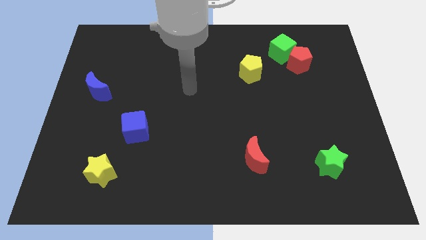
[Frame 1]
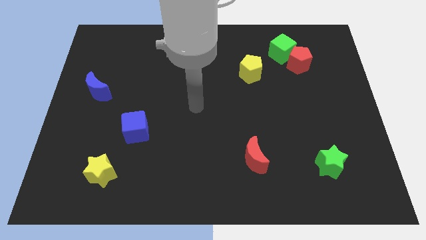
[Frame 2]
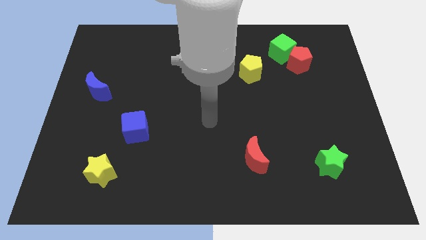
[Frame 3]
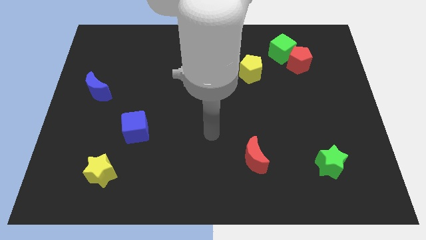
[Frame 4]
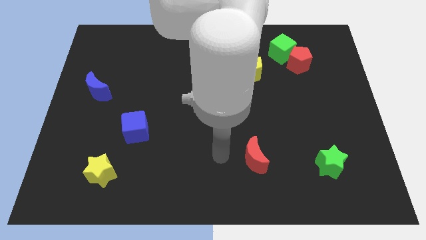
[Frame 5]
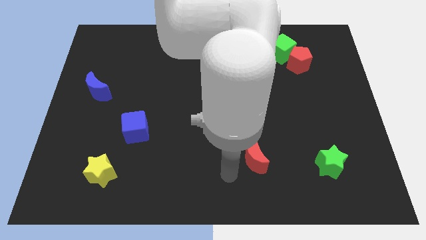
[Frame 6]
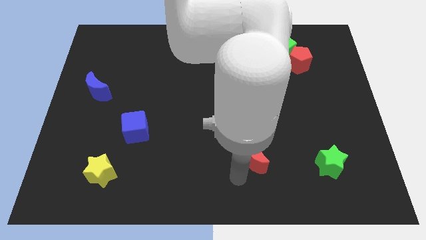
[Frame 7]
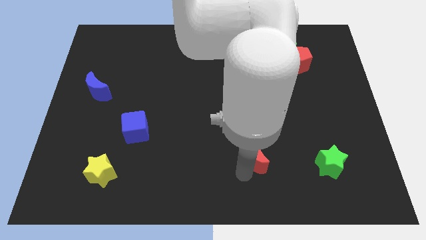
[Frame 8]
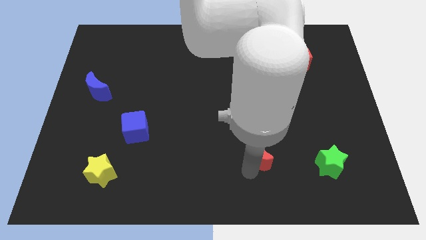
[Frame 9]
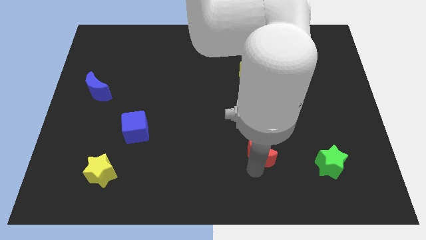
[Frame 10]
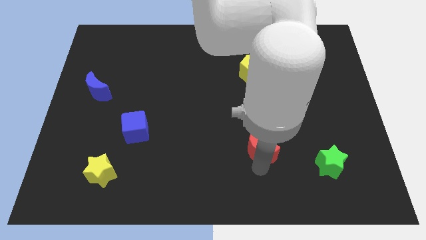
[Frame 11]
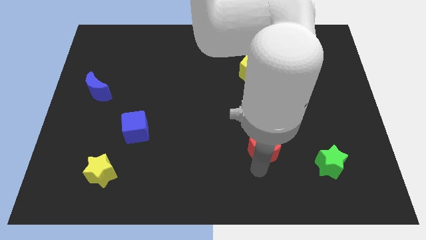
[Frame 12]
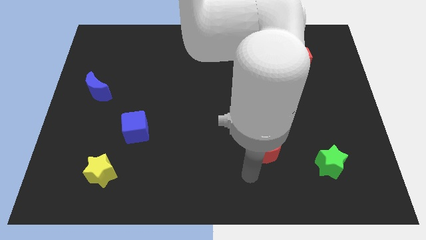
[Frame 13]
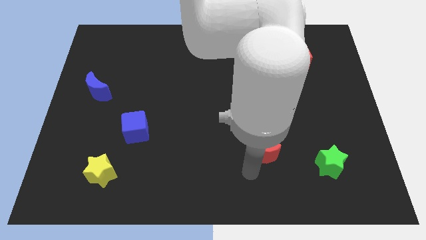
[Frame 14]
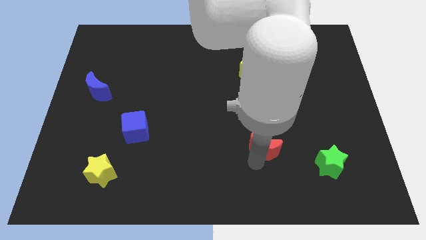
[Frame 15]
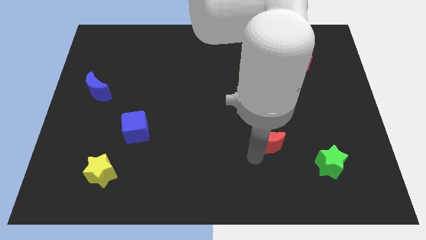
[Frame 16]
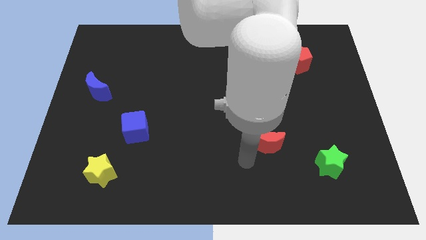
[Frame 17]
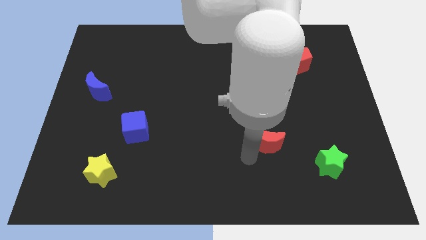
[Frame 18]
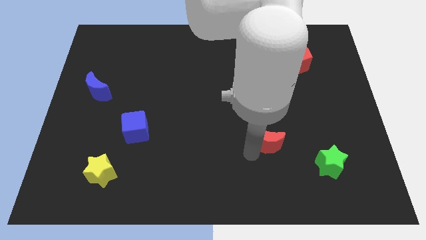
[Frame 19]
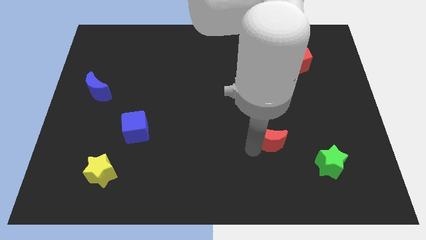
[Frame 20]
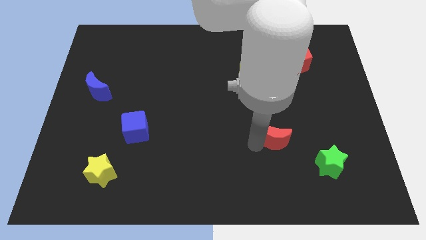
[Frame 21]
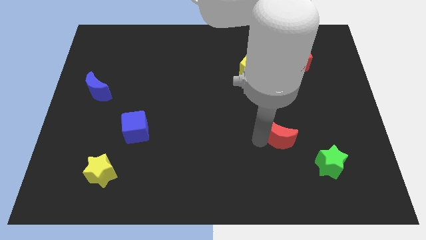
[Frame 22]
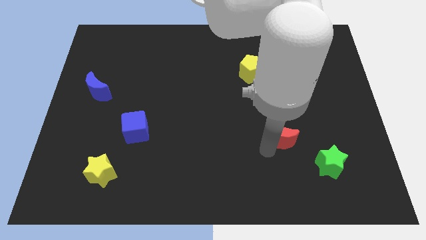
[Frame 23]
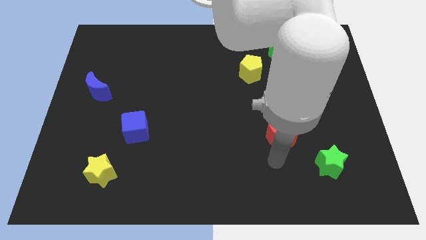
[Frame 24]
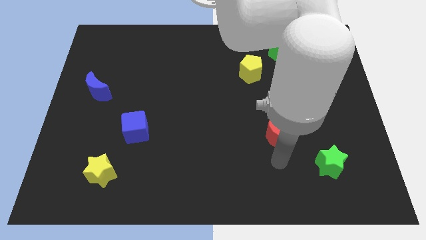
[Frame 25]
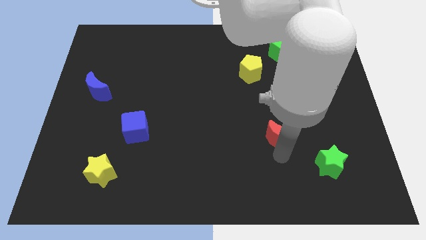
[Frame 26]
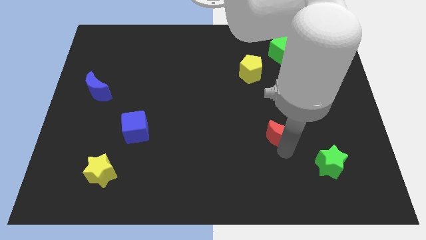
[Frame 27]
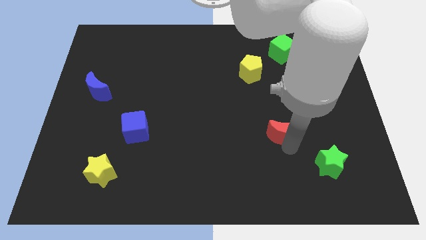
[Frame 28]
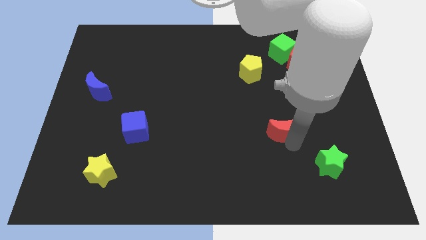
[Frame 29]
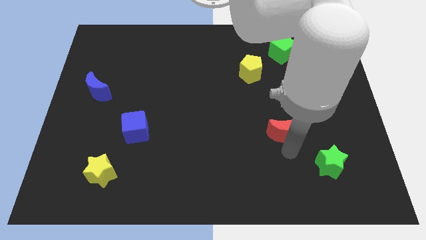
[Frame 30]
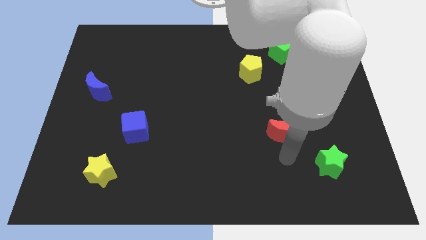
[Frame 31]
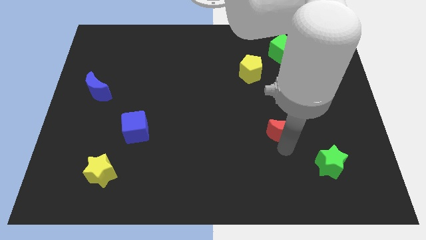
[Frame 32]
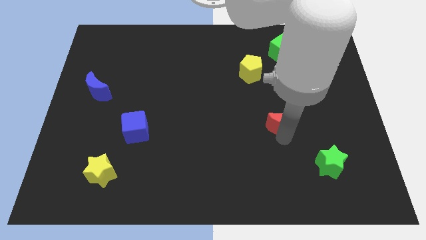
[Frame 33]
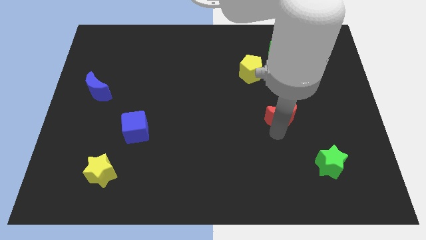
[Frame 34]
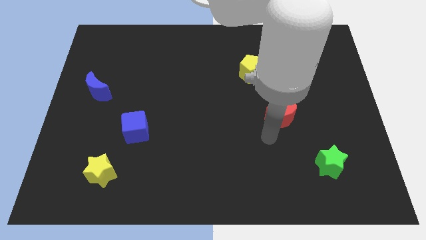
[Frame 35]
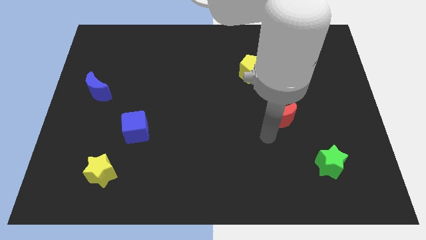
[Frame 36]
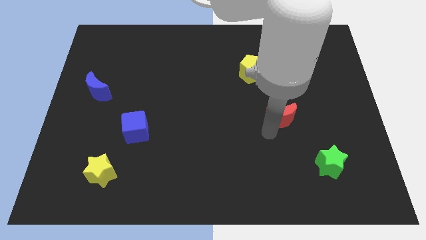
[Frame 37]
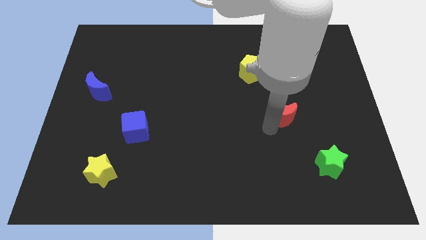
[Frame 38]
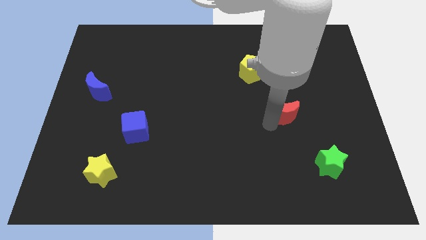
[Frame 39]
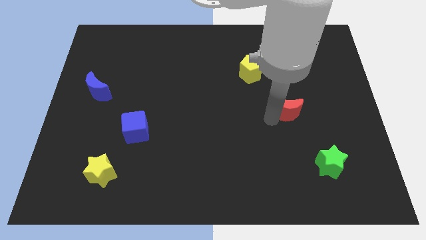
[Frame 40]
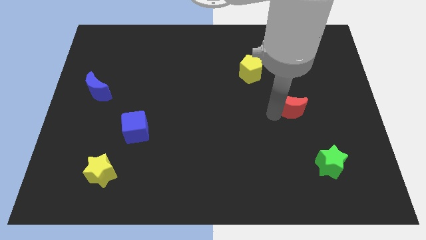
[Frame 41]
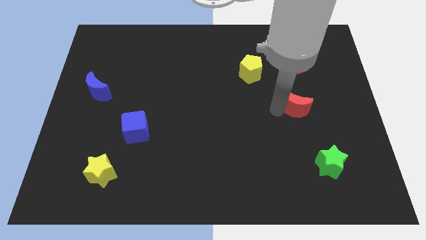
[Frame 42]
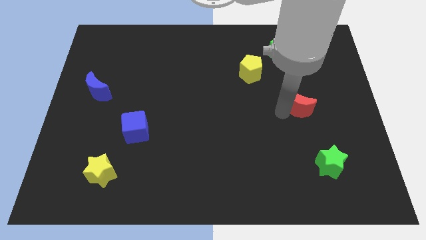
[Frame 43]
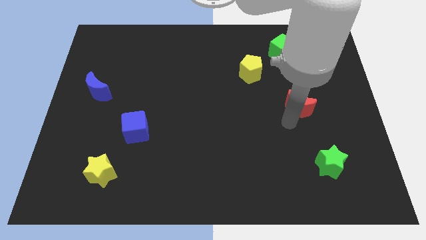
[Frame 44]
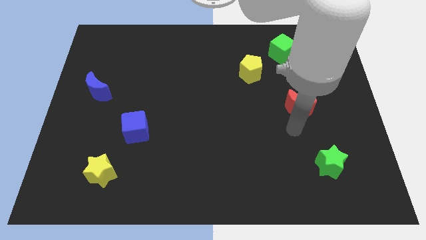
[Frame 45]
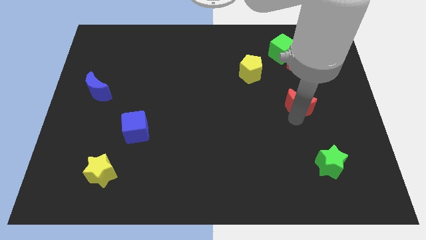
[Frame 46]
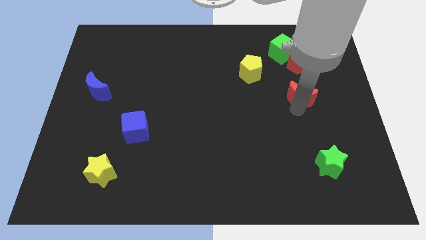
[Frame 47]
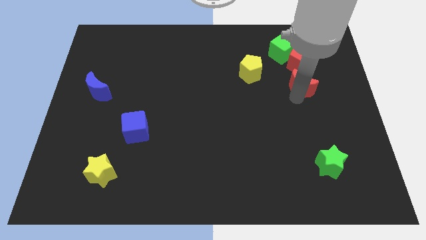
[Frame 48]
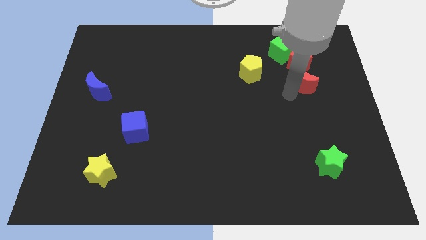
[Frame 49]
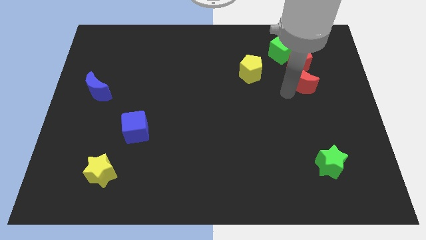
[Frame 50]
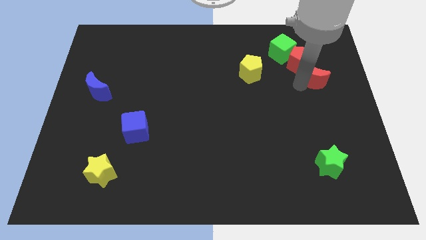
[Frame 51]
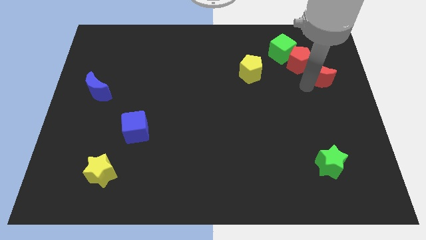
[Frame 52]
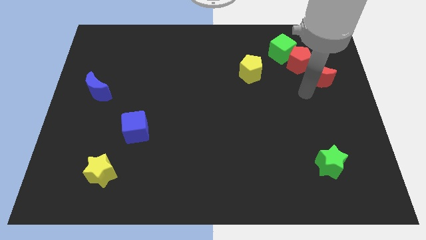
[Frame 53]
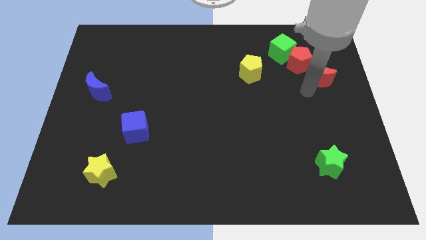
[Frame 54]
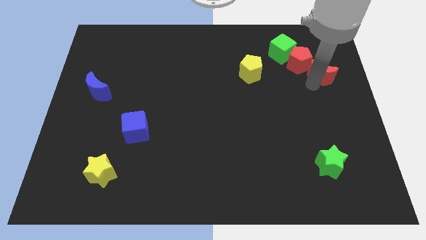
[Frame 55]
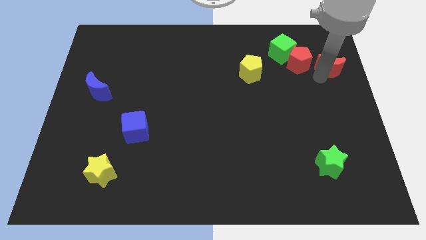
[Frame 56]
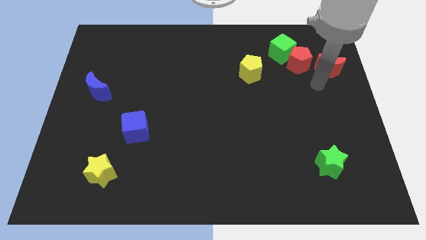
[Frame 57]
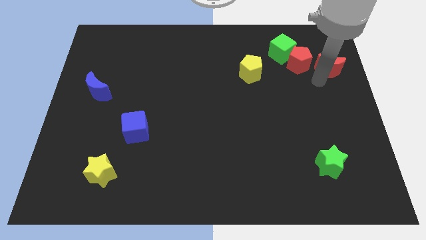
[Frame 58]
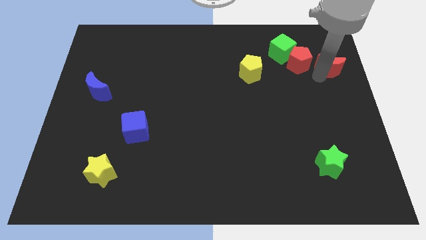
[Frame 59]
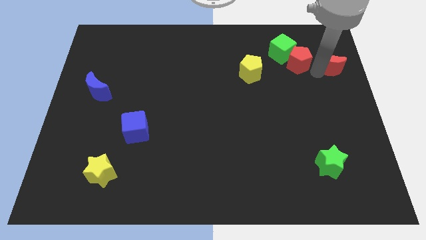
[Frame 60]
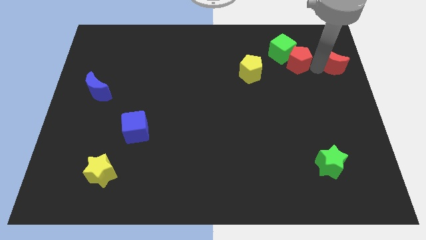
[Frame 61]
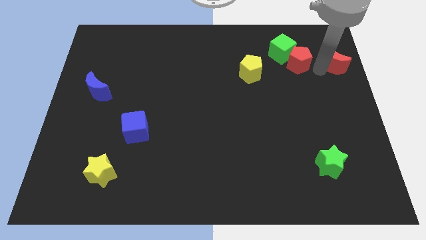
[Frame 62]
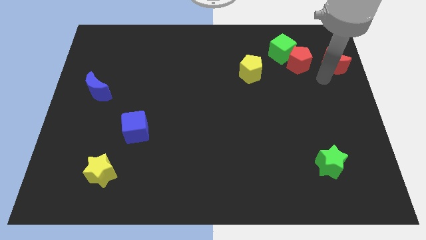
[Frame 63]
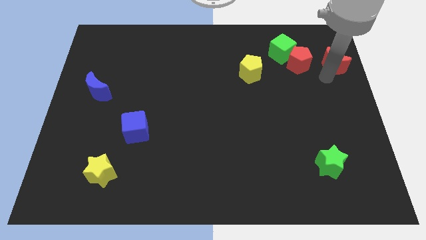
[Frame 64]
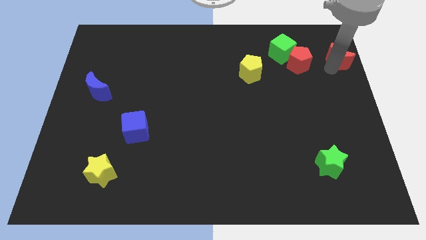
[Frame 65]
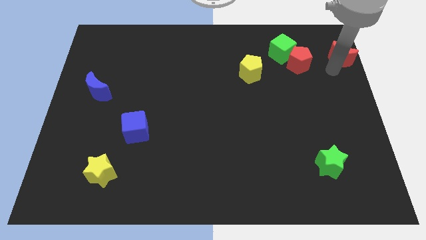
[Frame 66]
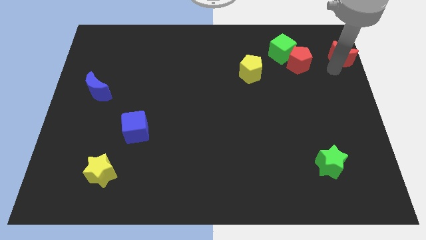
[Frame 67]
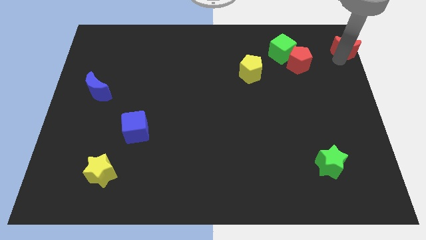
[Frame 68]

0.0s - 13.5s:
slide the red moon to the top right corner

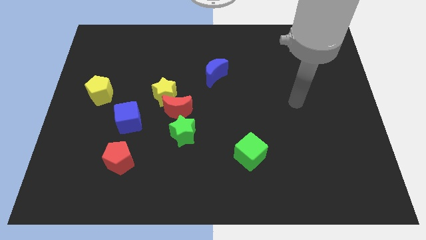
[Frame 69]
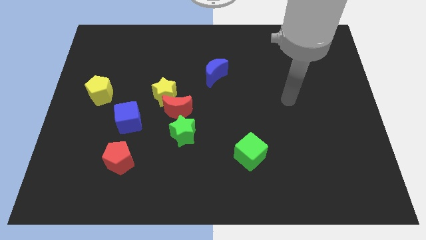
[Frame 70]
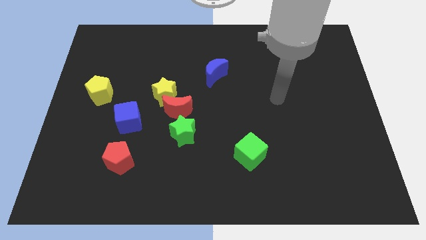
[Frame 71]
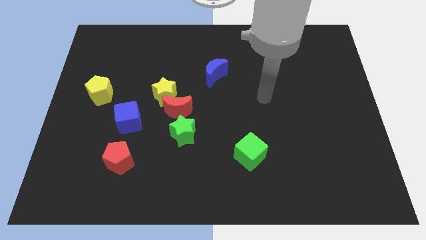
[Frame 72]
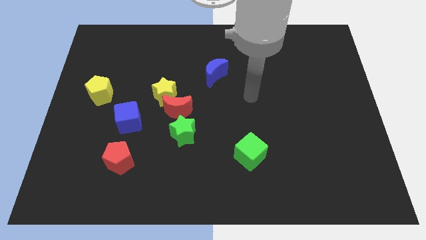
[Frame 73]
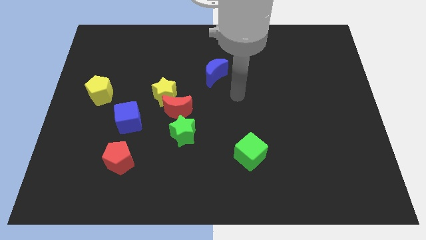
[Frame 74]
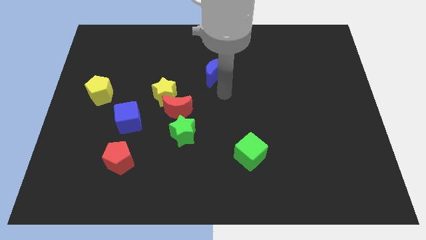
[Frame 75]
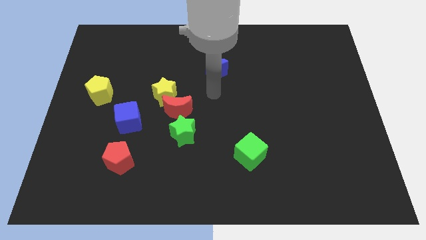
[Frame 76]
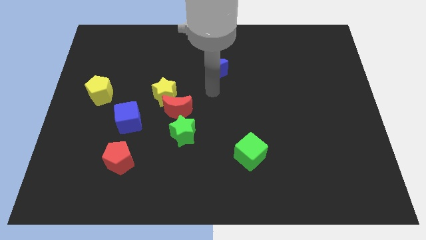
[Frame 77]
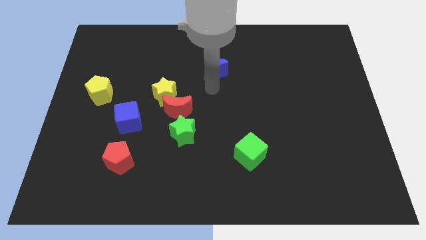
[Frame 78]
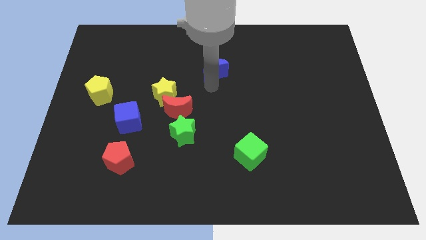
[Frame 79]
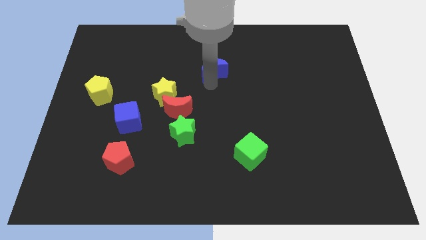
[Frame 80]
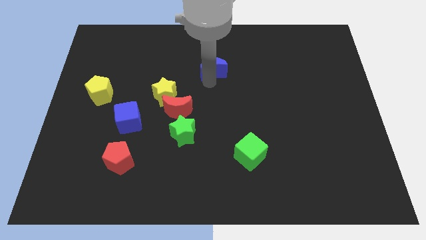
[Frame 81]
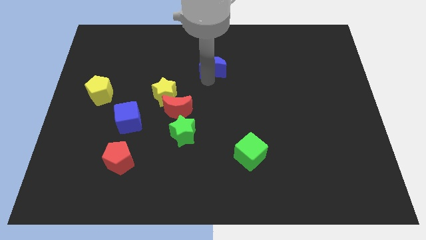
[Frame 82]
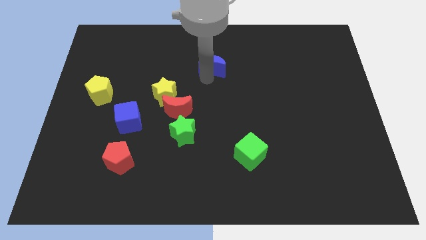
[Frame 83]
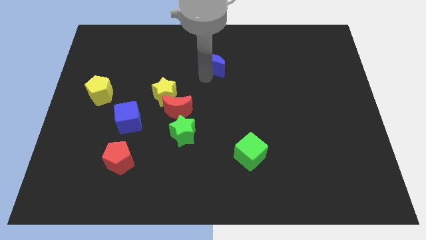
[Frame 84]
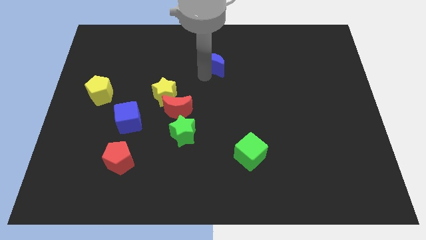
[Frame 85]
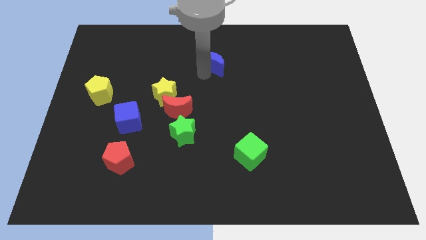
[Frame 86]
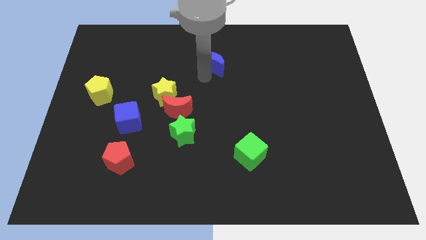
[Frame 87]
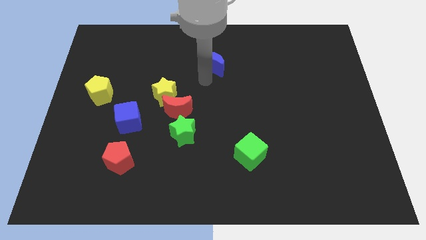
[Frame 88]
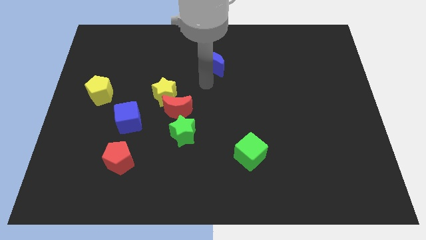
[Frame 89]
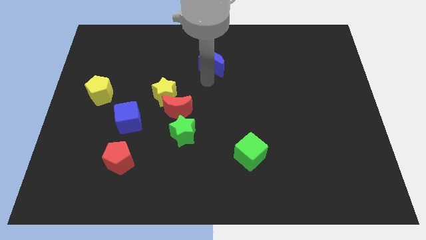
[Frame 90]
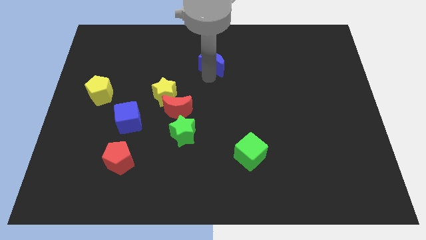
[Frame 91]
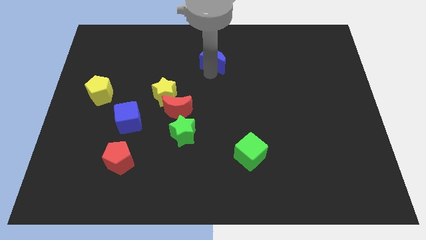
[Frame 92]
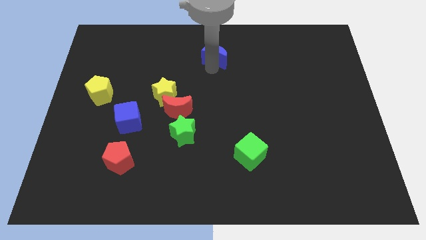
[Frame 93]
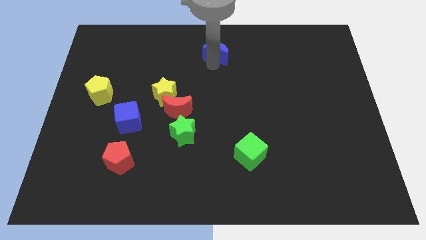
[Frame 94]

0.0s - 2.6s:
slide the blue moon to the top
